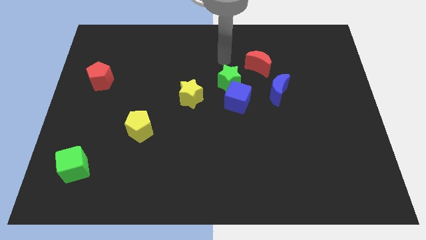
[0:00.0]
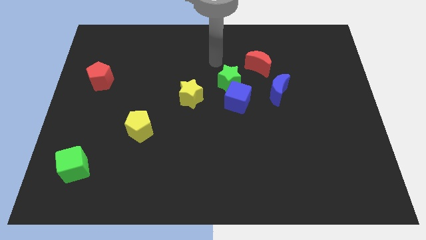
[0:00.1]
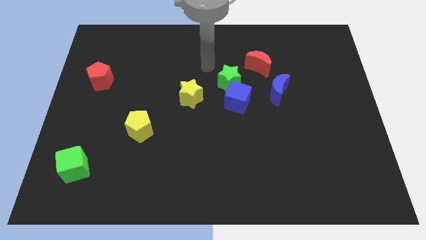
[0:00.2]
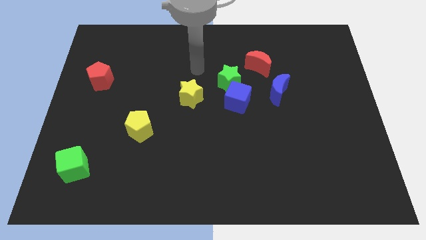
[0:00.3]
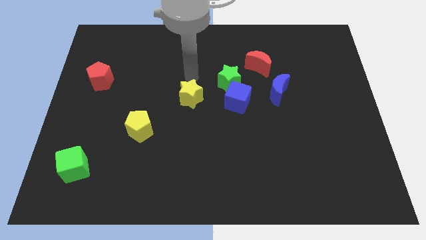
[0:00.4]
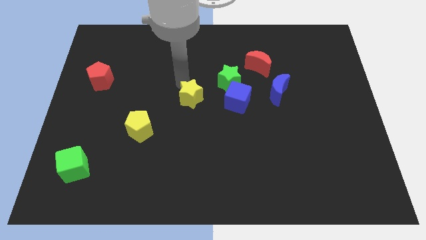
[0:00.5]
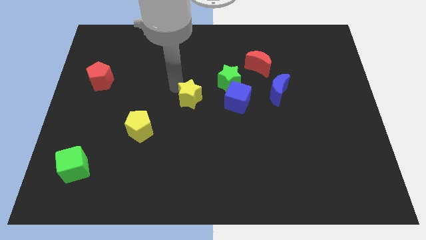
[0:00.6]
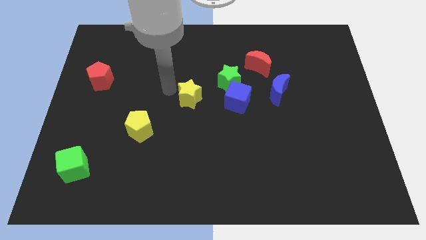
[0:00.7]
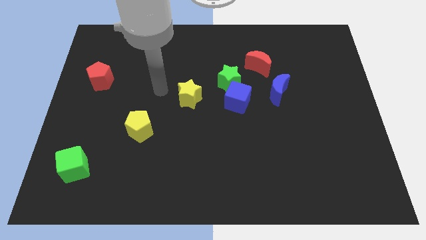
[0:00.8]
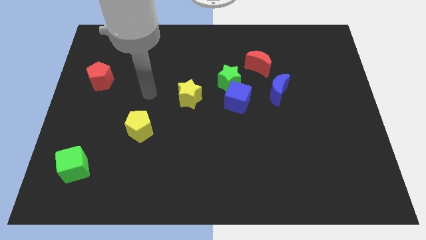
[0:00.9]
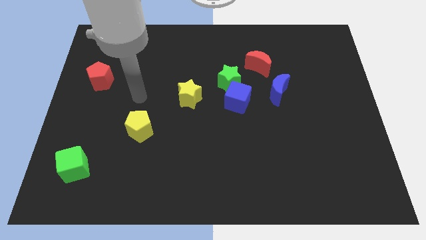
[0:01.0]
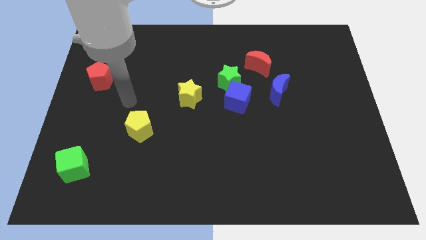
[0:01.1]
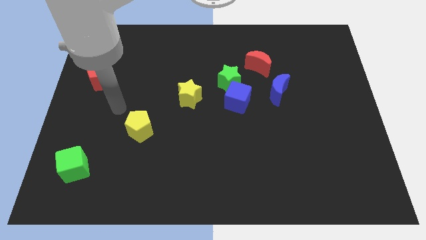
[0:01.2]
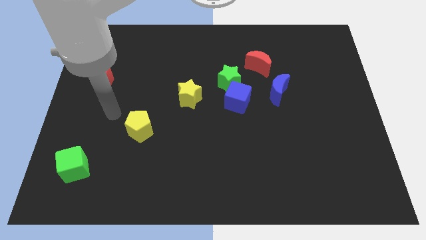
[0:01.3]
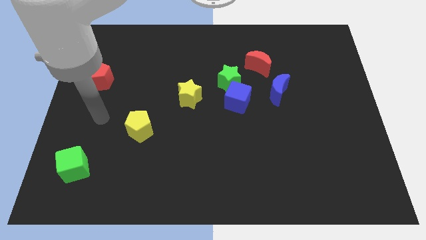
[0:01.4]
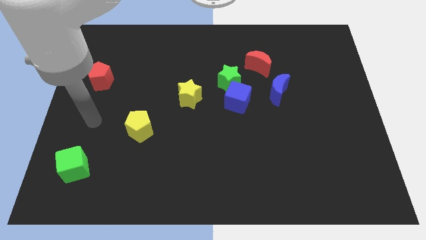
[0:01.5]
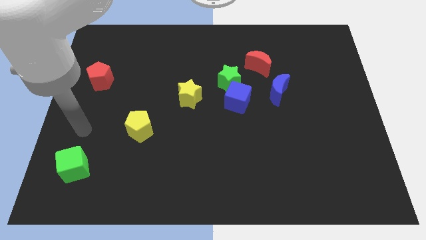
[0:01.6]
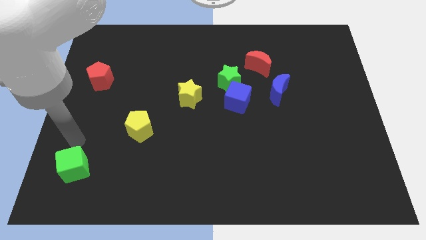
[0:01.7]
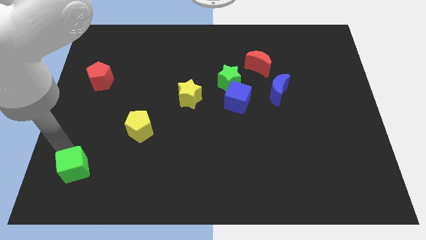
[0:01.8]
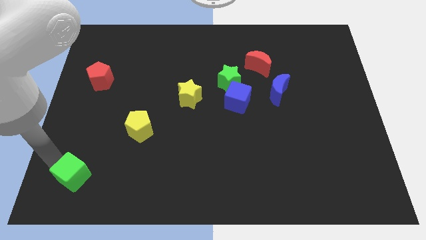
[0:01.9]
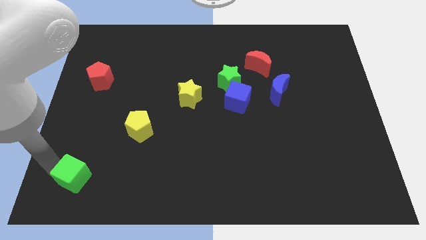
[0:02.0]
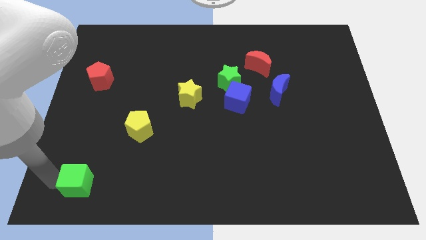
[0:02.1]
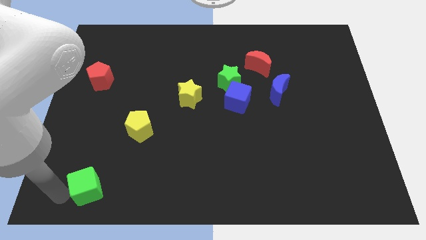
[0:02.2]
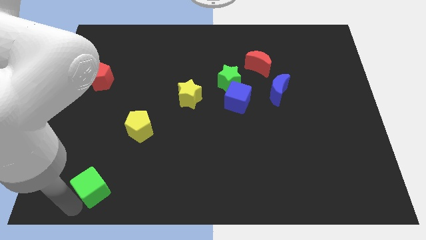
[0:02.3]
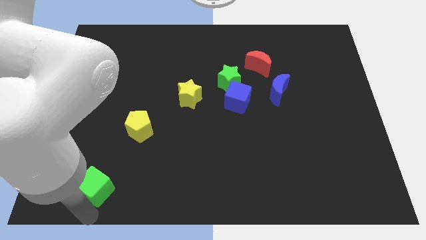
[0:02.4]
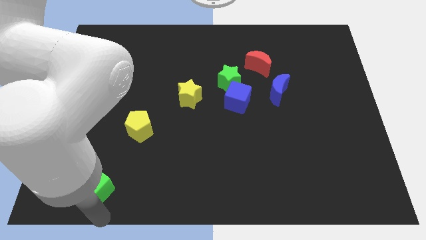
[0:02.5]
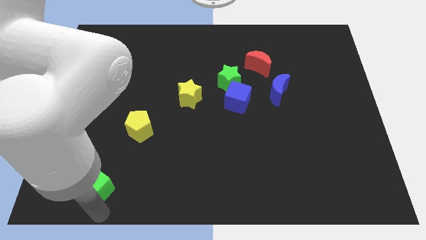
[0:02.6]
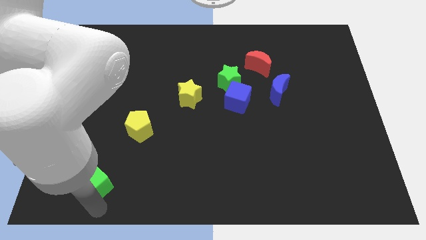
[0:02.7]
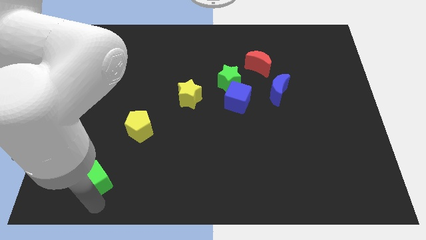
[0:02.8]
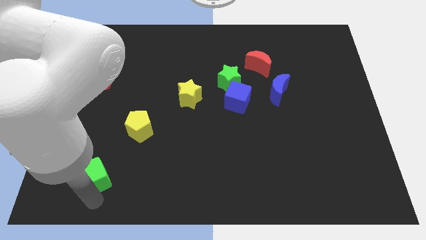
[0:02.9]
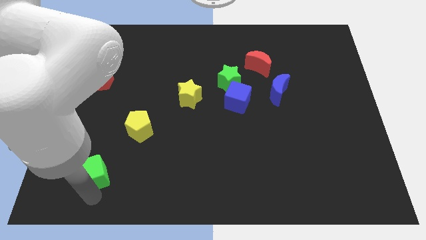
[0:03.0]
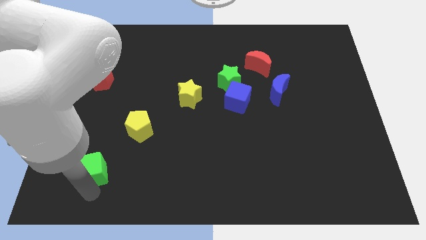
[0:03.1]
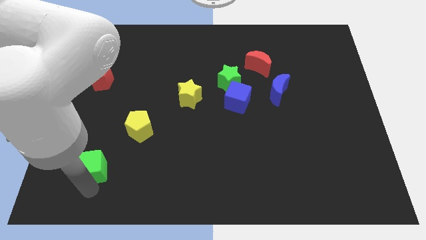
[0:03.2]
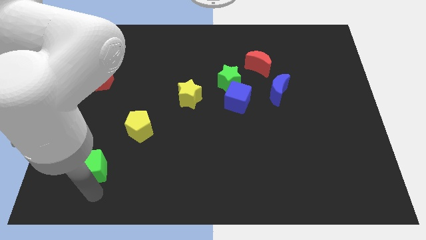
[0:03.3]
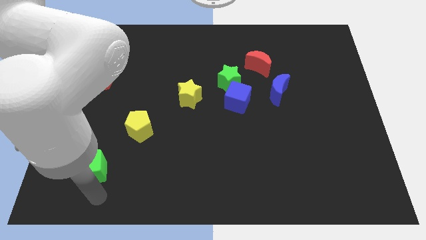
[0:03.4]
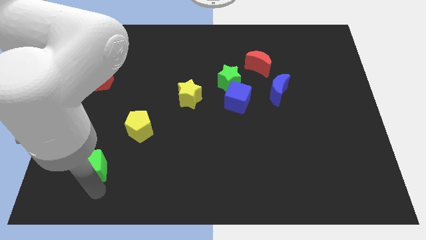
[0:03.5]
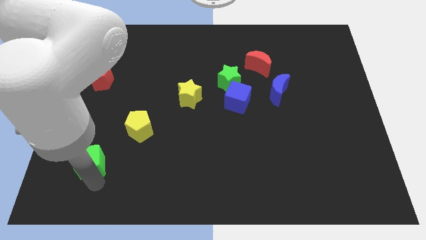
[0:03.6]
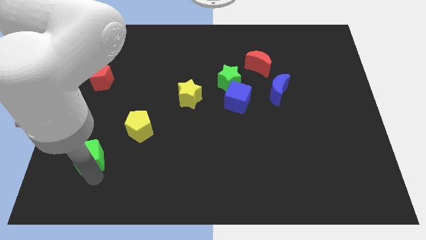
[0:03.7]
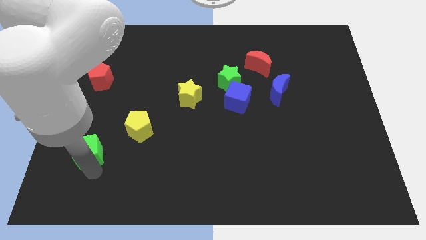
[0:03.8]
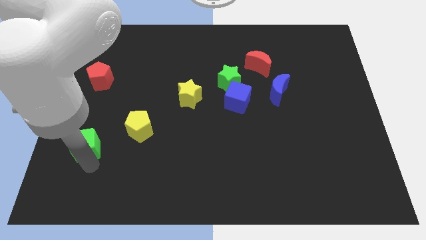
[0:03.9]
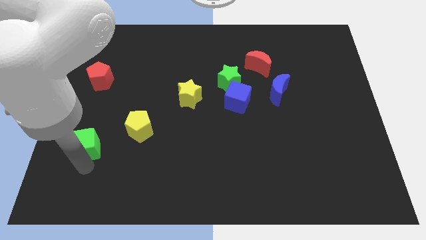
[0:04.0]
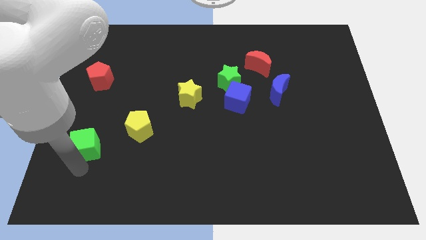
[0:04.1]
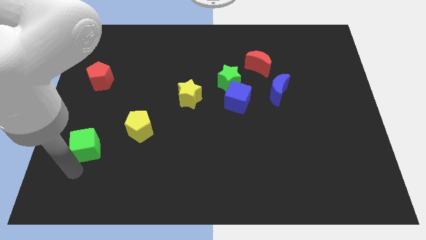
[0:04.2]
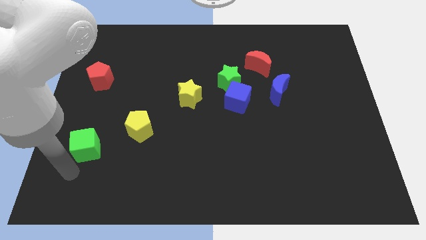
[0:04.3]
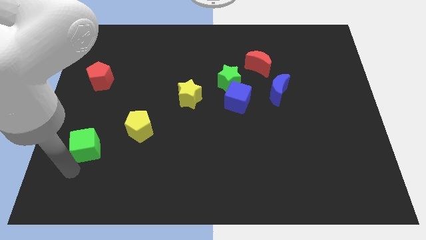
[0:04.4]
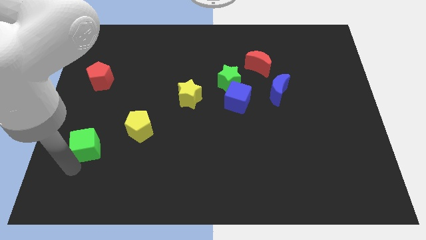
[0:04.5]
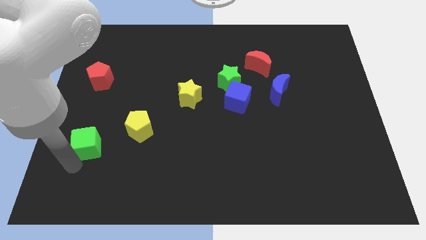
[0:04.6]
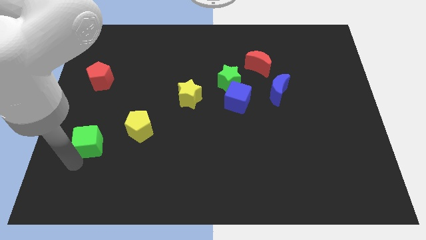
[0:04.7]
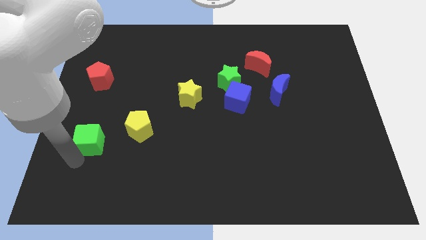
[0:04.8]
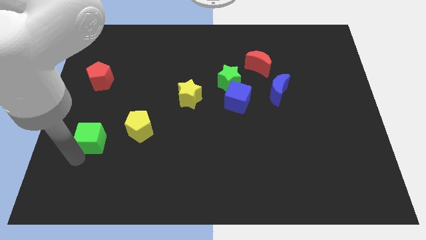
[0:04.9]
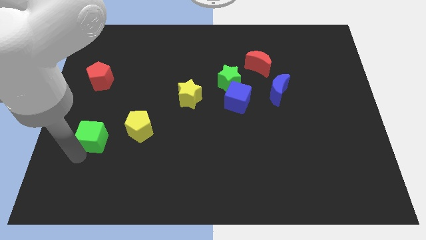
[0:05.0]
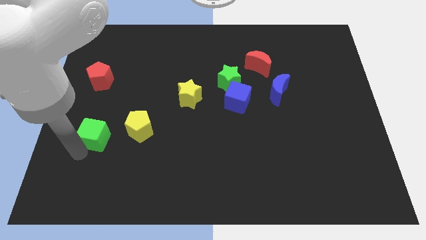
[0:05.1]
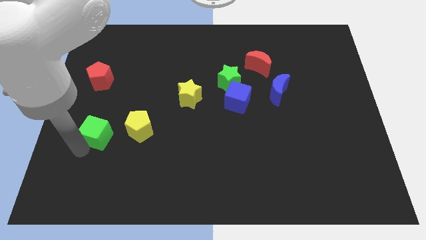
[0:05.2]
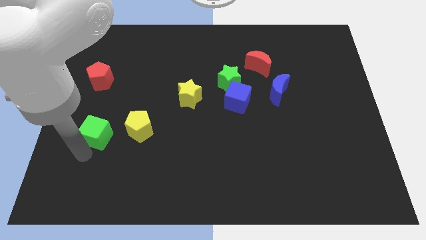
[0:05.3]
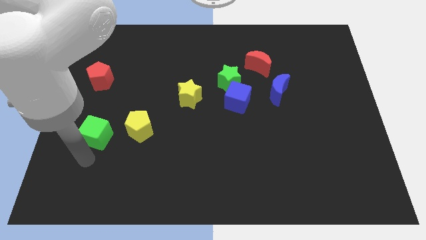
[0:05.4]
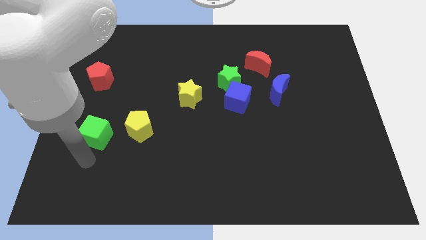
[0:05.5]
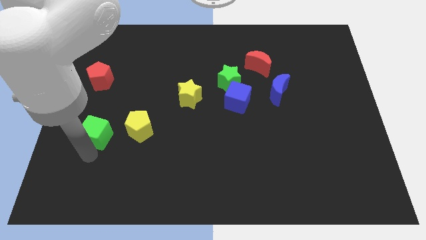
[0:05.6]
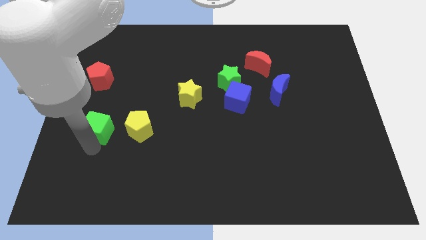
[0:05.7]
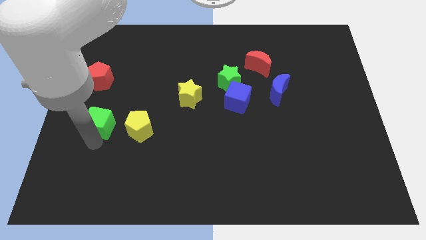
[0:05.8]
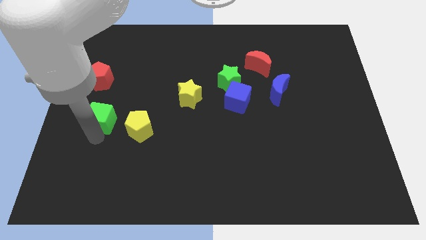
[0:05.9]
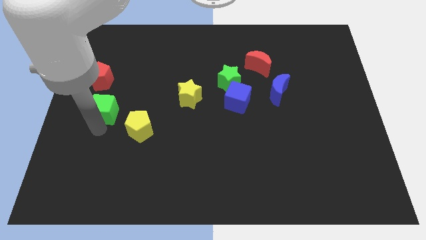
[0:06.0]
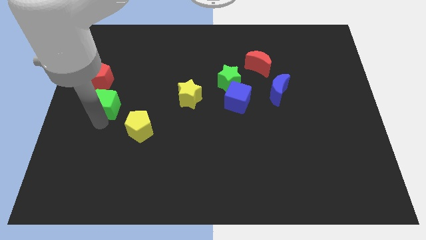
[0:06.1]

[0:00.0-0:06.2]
move the green cube to the bottom right side of the red pentagon

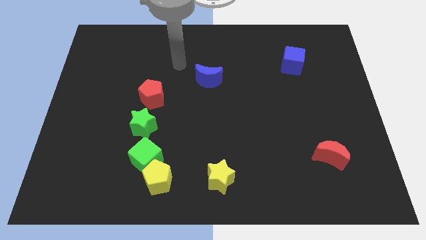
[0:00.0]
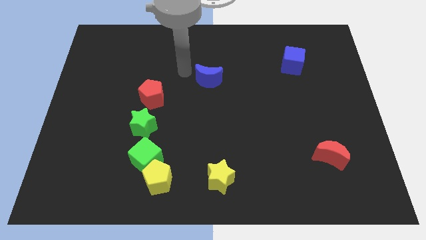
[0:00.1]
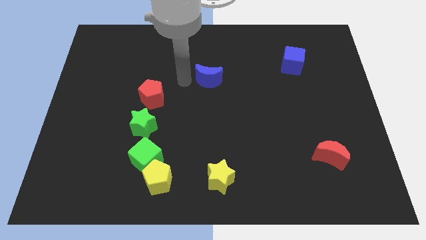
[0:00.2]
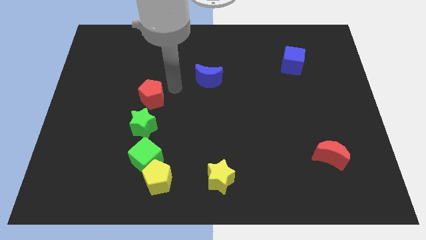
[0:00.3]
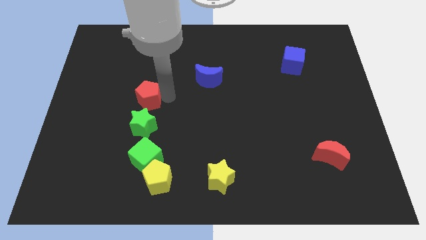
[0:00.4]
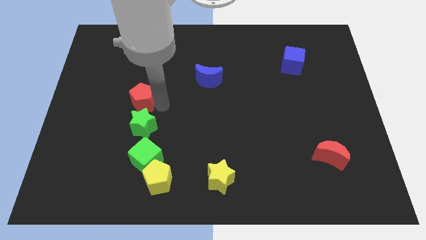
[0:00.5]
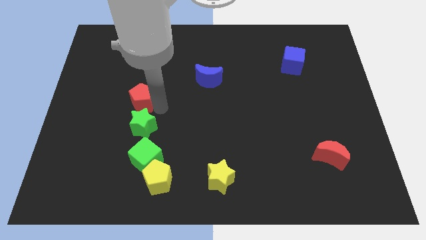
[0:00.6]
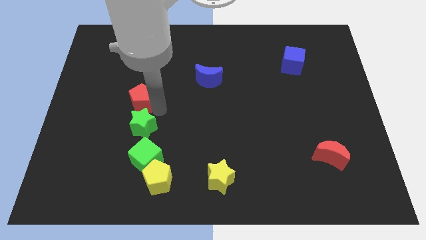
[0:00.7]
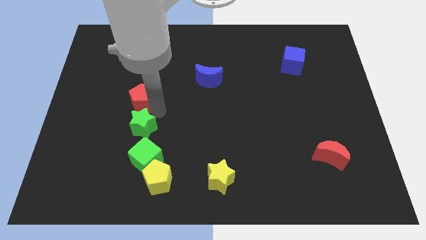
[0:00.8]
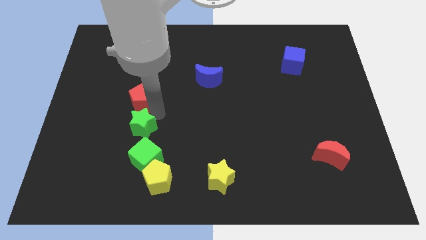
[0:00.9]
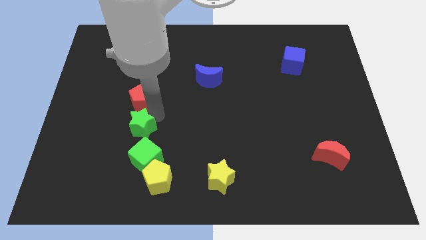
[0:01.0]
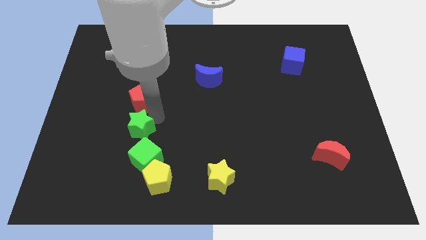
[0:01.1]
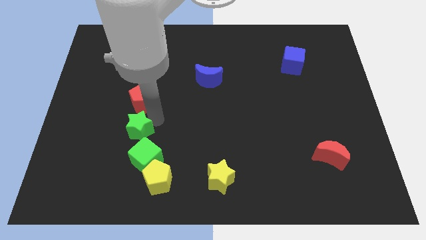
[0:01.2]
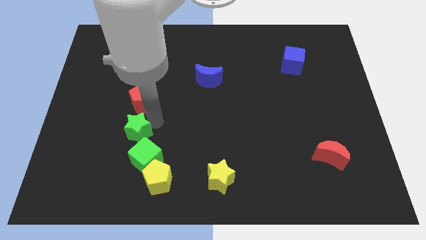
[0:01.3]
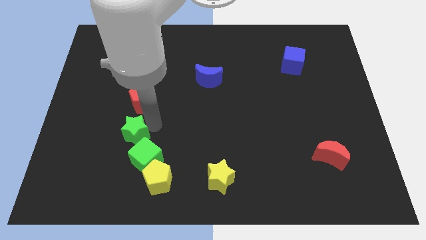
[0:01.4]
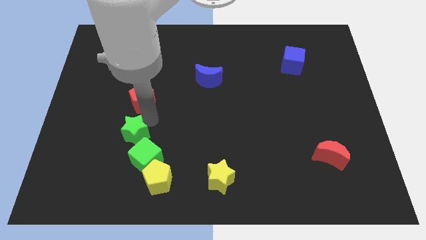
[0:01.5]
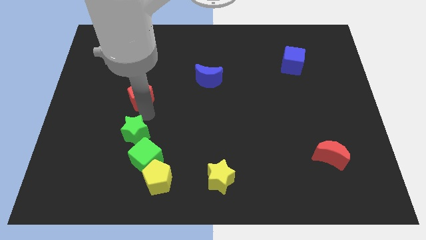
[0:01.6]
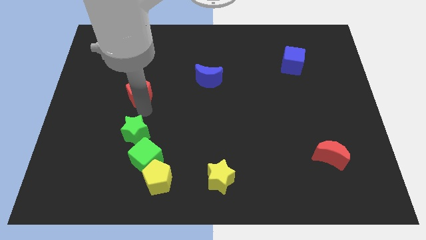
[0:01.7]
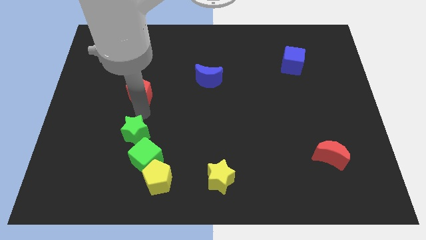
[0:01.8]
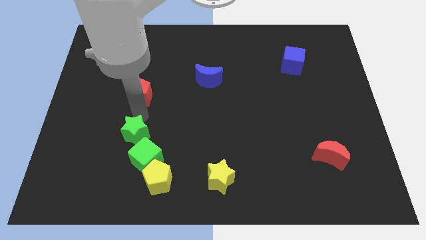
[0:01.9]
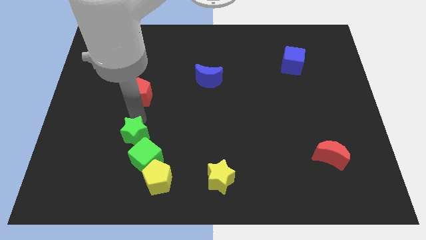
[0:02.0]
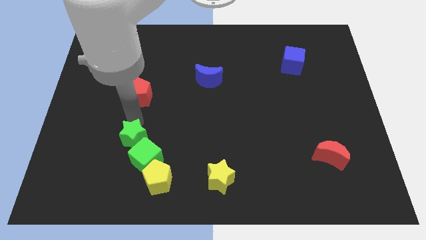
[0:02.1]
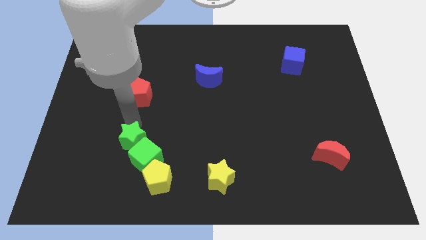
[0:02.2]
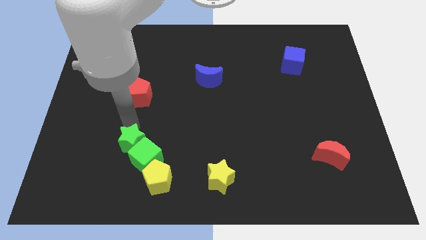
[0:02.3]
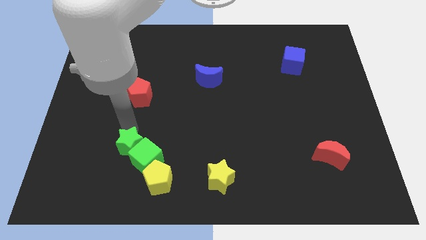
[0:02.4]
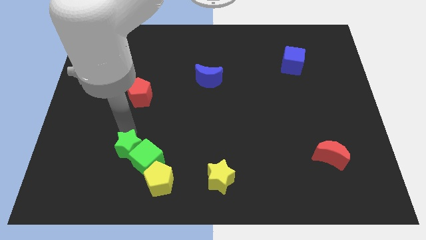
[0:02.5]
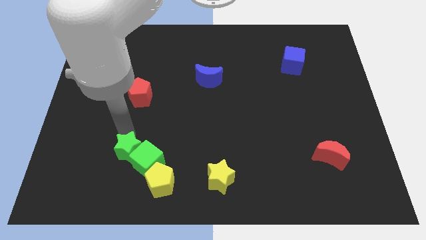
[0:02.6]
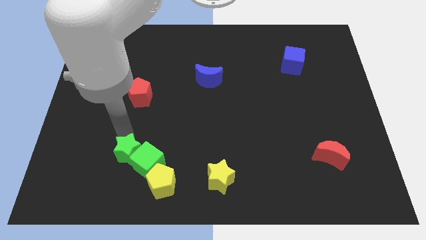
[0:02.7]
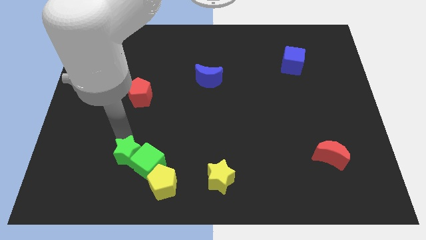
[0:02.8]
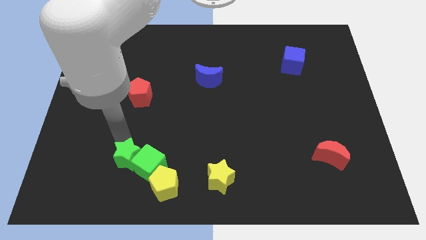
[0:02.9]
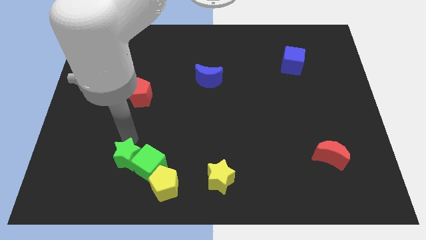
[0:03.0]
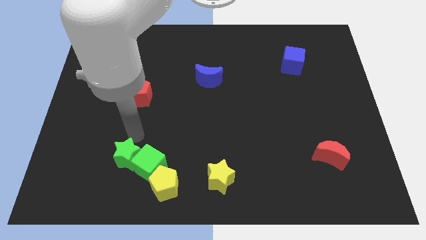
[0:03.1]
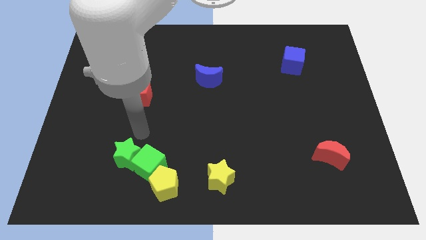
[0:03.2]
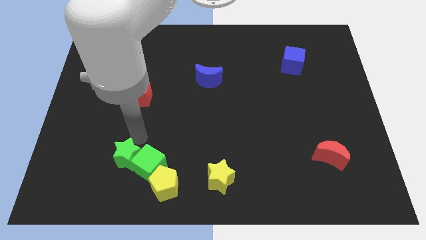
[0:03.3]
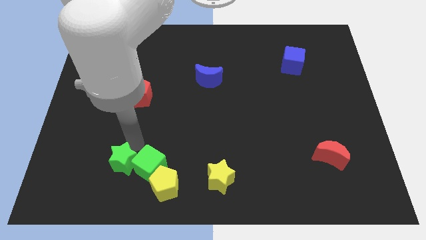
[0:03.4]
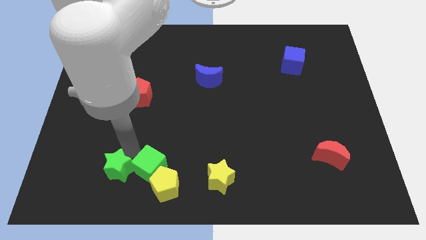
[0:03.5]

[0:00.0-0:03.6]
move the green star to the left of the yellow pentagon
